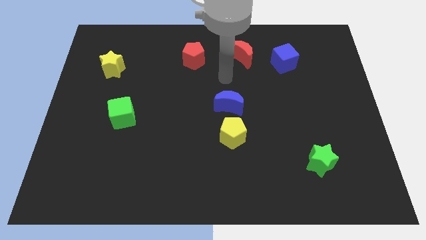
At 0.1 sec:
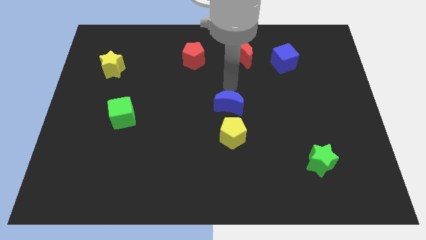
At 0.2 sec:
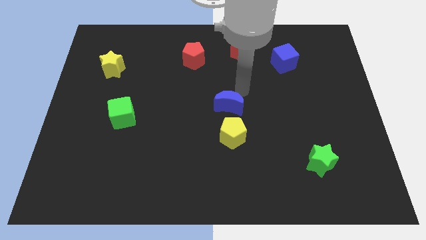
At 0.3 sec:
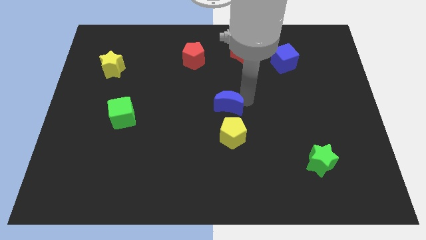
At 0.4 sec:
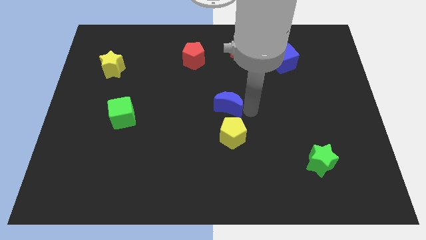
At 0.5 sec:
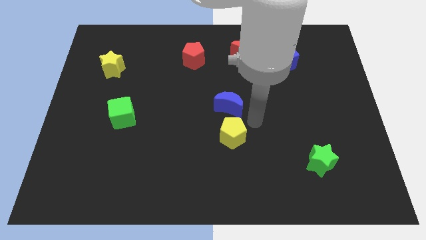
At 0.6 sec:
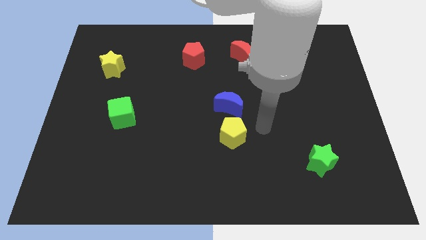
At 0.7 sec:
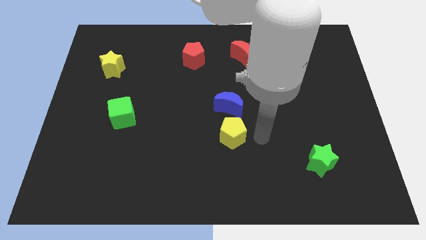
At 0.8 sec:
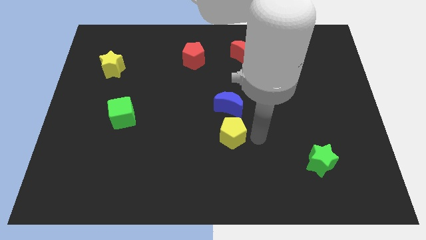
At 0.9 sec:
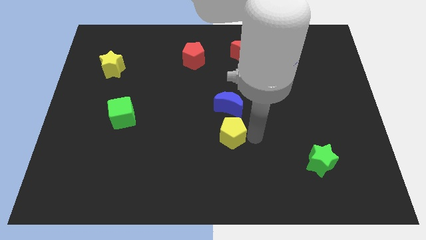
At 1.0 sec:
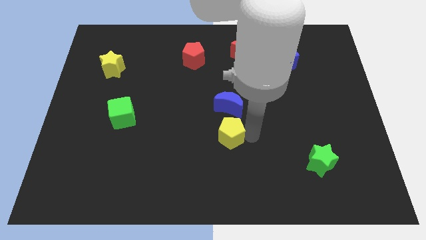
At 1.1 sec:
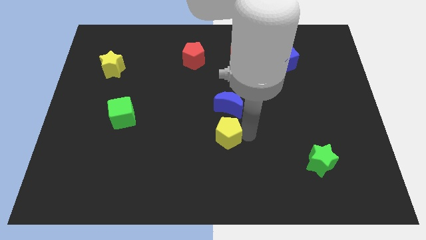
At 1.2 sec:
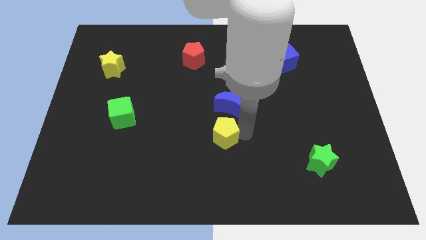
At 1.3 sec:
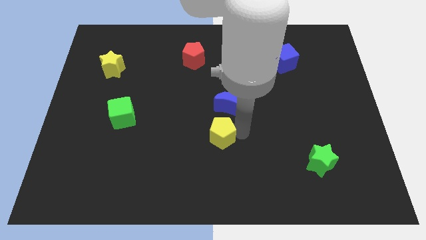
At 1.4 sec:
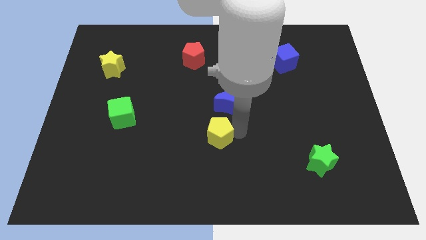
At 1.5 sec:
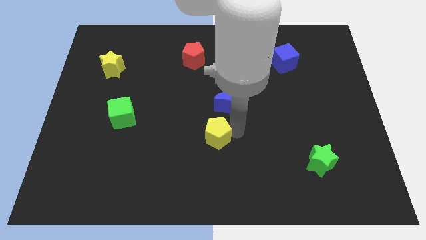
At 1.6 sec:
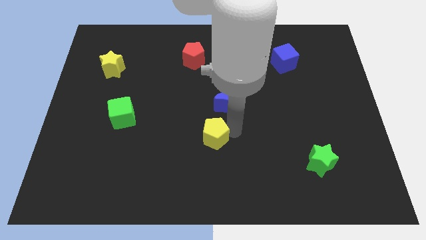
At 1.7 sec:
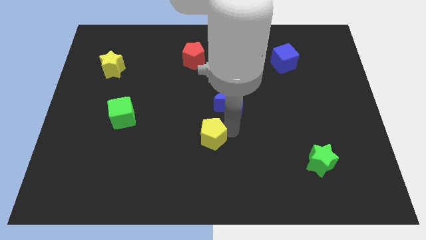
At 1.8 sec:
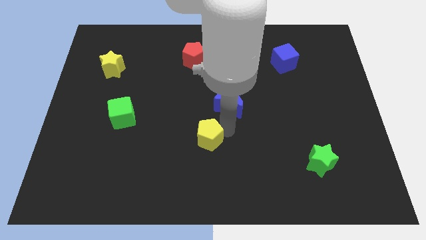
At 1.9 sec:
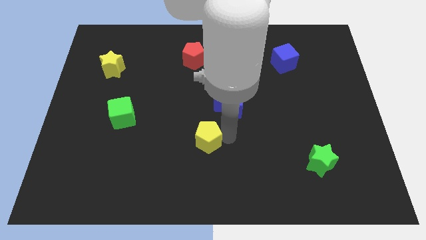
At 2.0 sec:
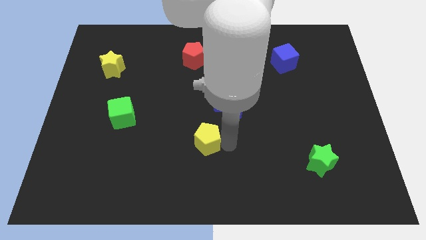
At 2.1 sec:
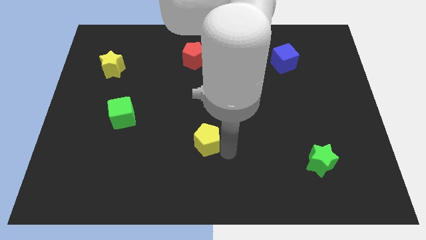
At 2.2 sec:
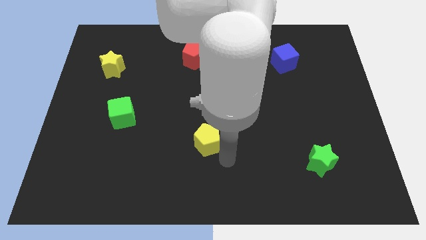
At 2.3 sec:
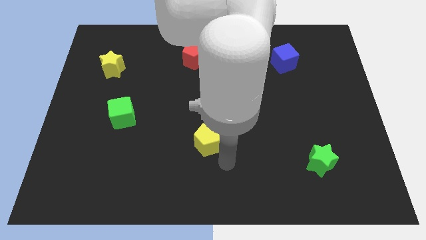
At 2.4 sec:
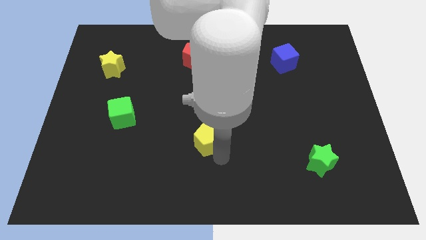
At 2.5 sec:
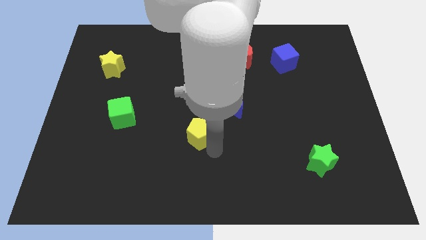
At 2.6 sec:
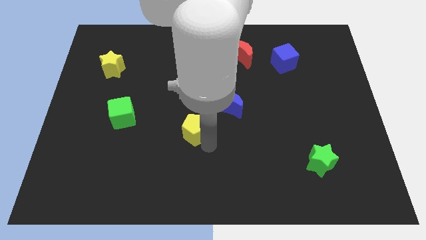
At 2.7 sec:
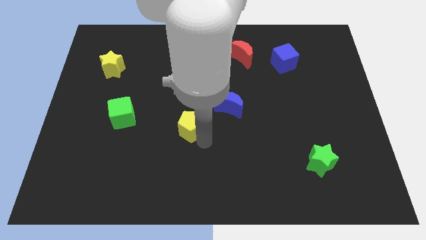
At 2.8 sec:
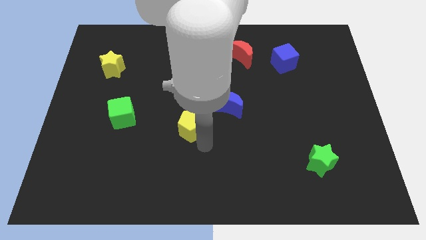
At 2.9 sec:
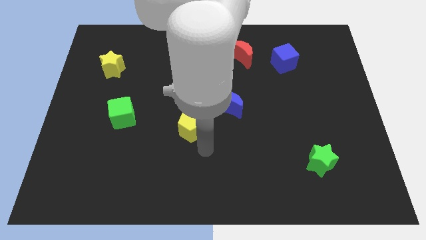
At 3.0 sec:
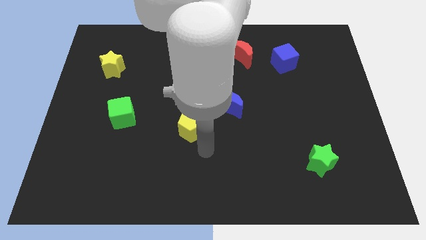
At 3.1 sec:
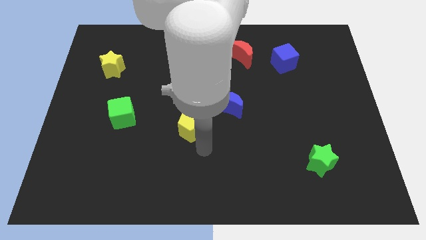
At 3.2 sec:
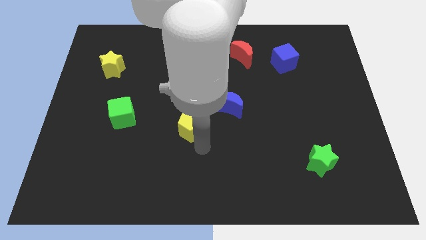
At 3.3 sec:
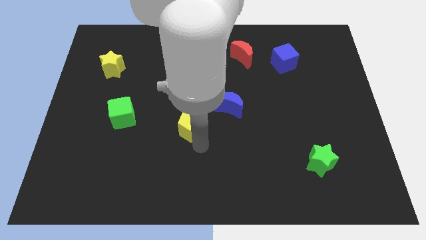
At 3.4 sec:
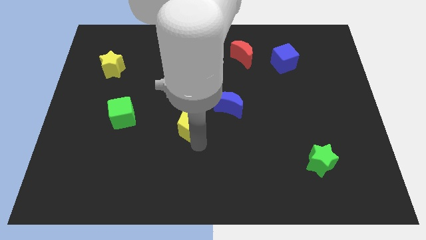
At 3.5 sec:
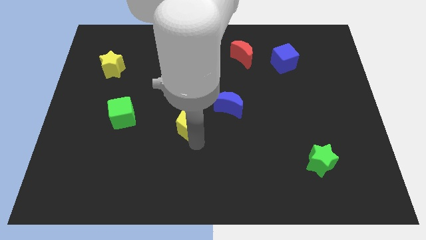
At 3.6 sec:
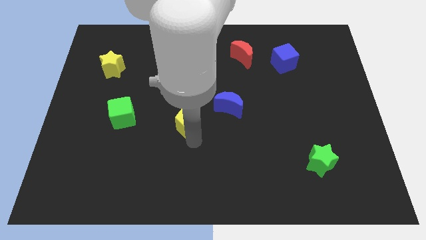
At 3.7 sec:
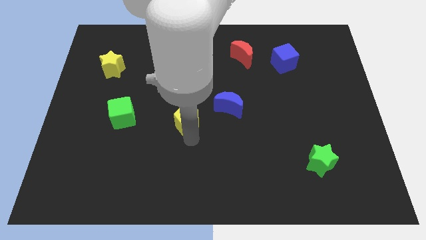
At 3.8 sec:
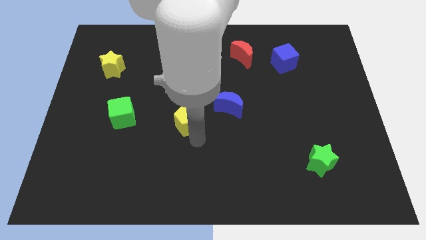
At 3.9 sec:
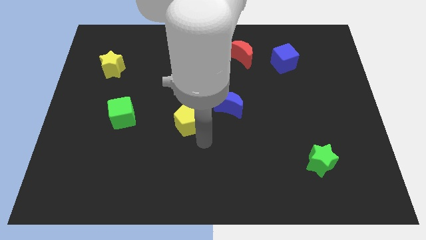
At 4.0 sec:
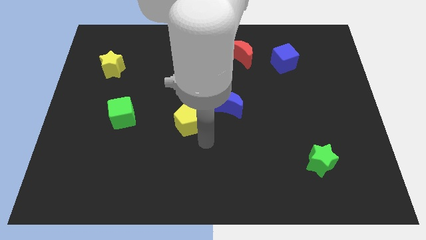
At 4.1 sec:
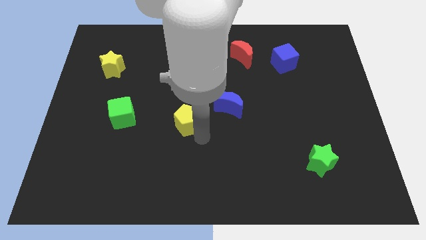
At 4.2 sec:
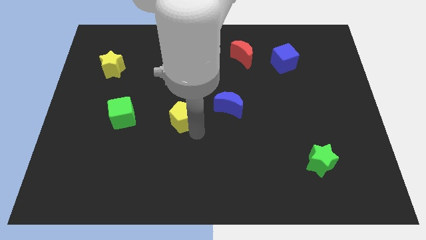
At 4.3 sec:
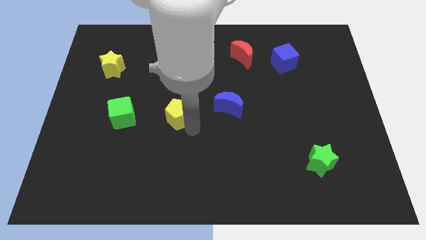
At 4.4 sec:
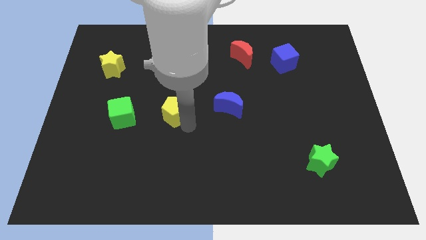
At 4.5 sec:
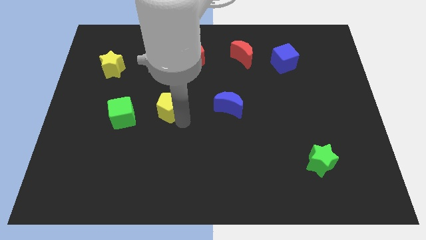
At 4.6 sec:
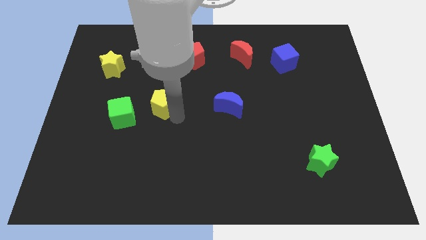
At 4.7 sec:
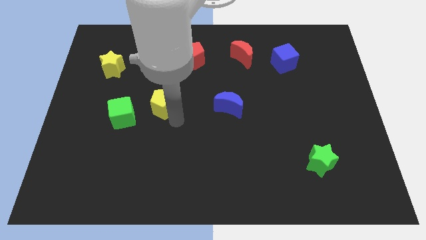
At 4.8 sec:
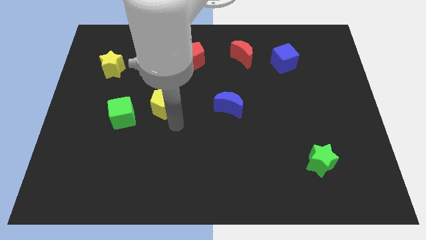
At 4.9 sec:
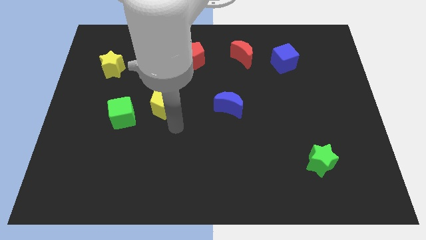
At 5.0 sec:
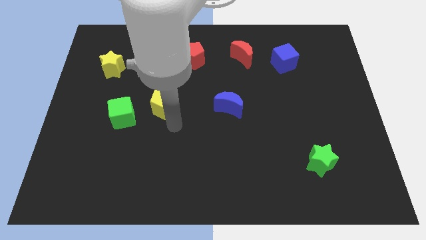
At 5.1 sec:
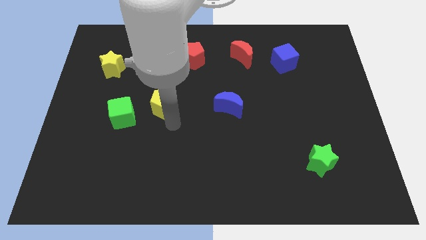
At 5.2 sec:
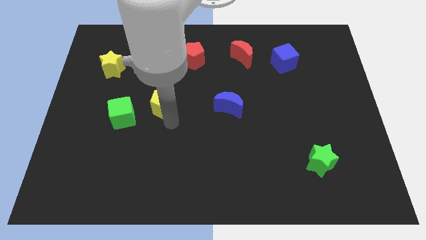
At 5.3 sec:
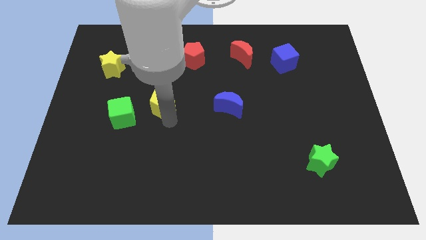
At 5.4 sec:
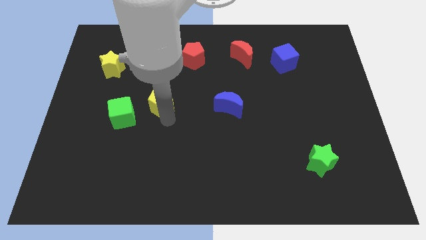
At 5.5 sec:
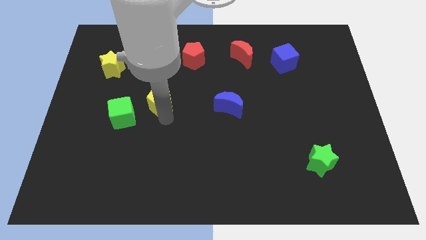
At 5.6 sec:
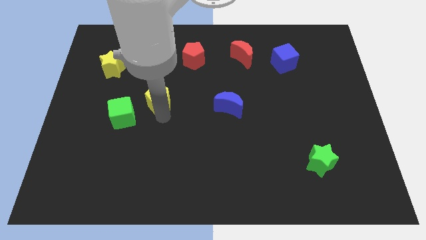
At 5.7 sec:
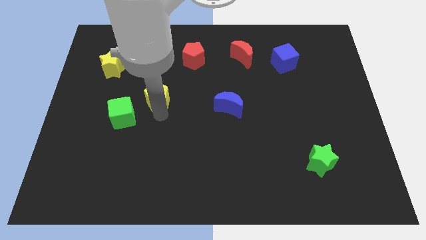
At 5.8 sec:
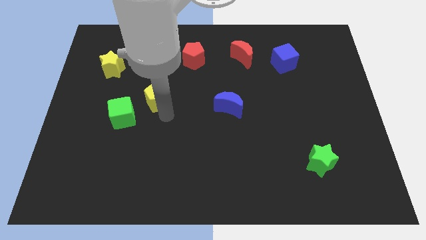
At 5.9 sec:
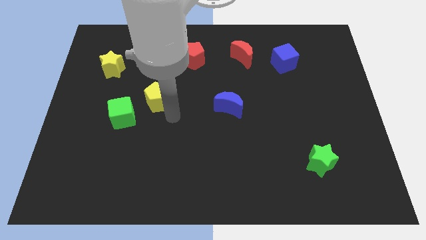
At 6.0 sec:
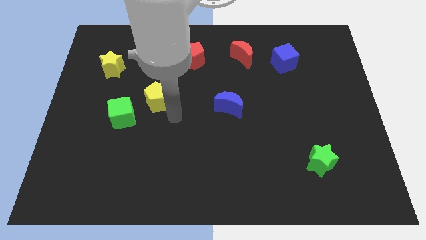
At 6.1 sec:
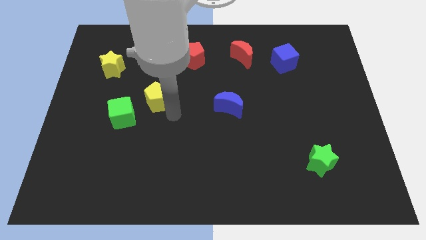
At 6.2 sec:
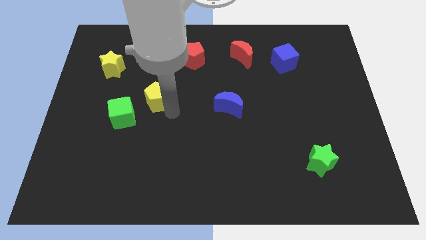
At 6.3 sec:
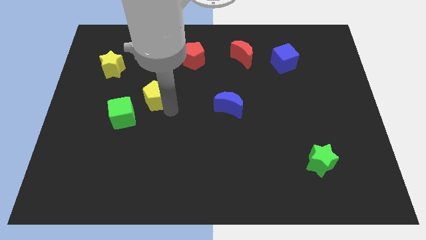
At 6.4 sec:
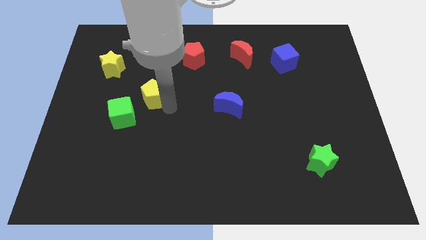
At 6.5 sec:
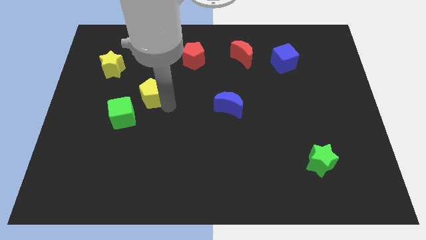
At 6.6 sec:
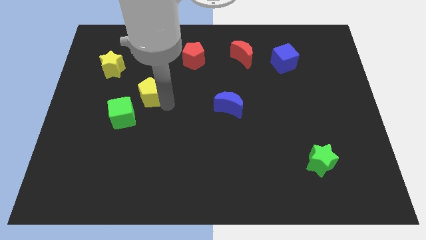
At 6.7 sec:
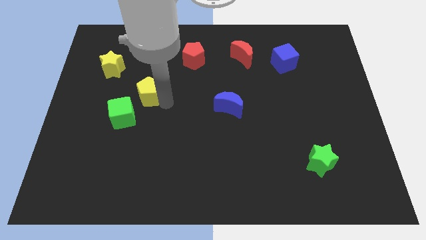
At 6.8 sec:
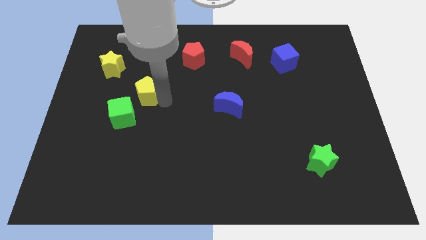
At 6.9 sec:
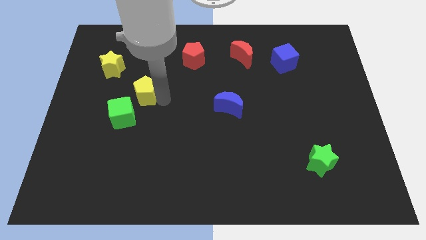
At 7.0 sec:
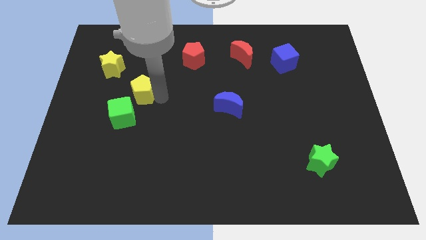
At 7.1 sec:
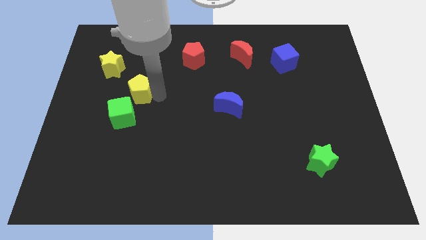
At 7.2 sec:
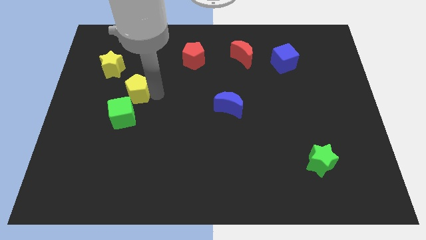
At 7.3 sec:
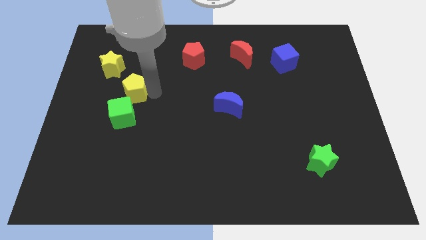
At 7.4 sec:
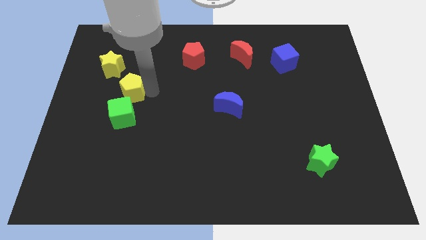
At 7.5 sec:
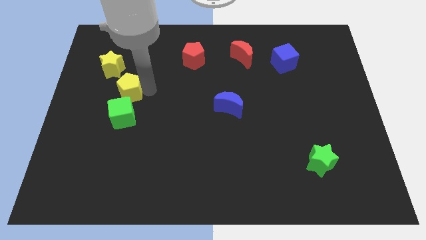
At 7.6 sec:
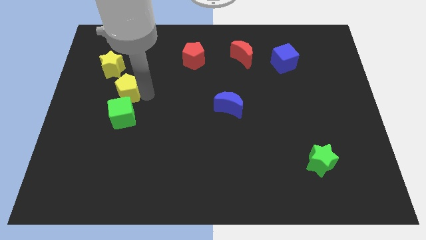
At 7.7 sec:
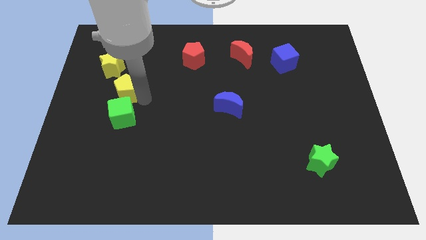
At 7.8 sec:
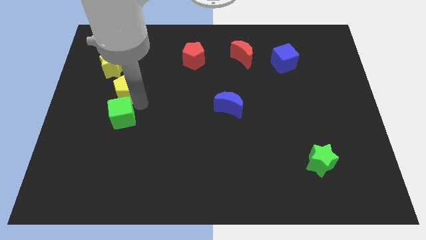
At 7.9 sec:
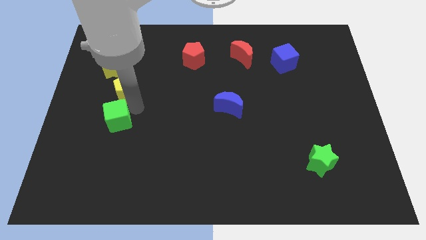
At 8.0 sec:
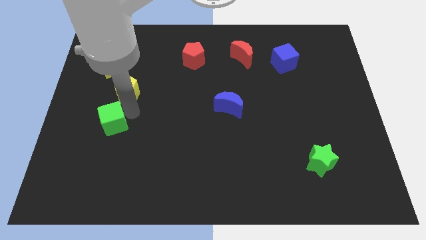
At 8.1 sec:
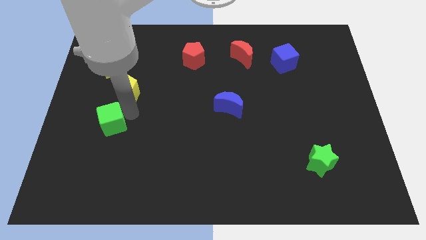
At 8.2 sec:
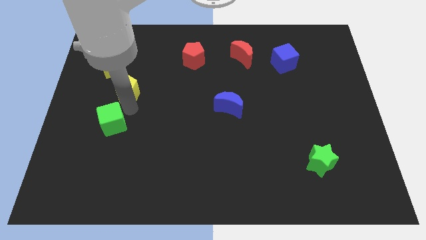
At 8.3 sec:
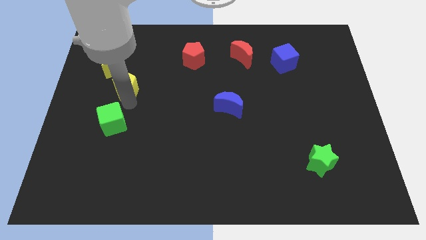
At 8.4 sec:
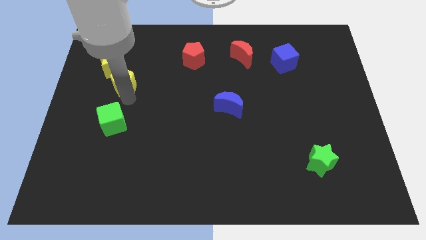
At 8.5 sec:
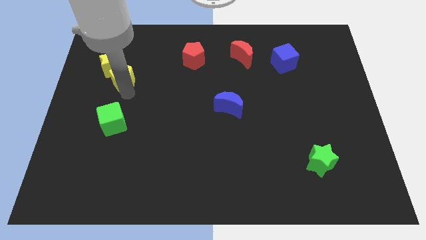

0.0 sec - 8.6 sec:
move the yellow pentagon next to the yellow star
